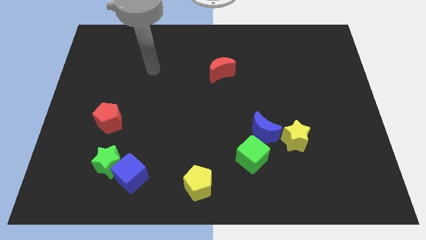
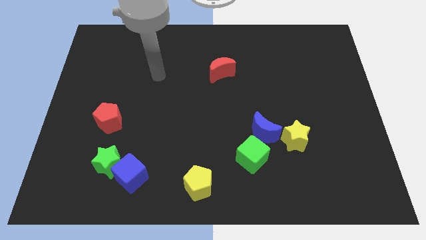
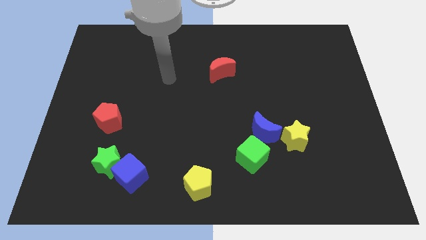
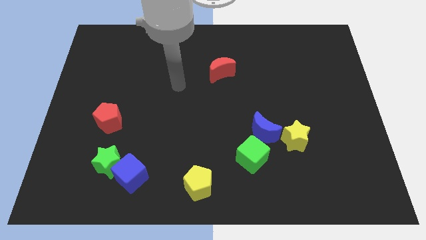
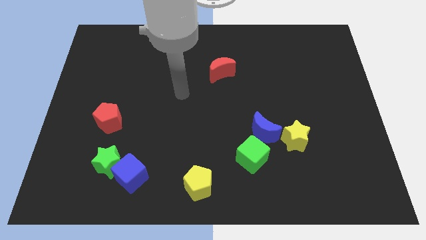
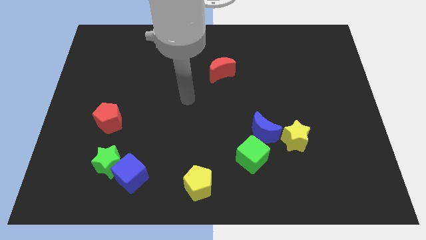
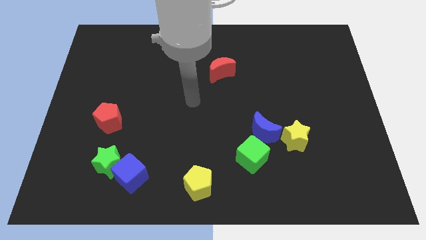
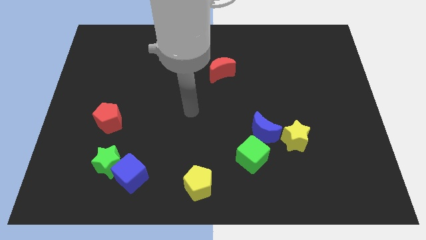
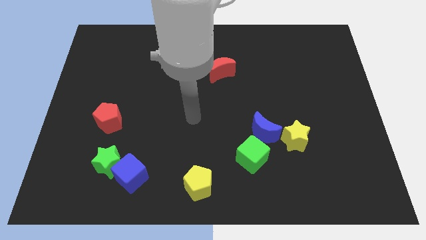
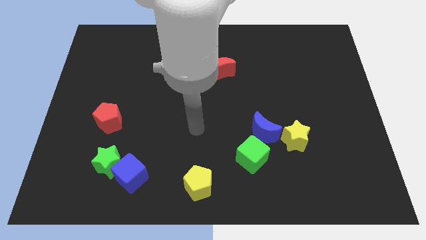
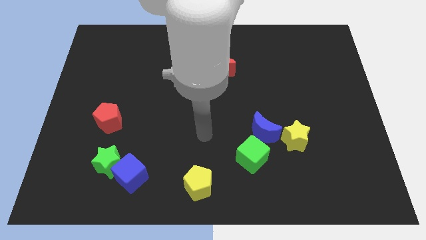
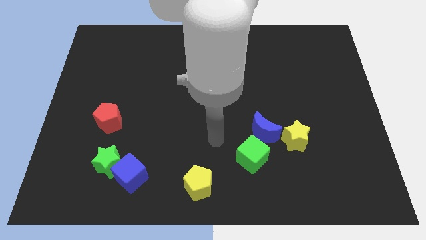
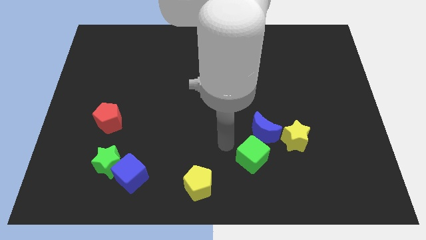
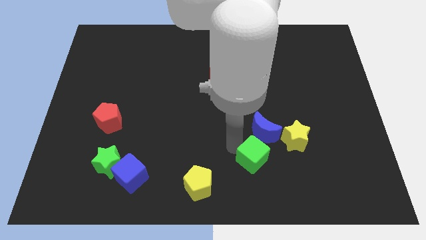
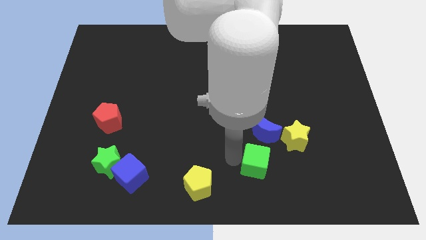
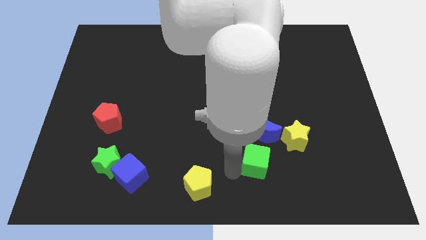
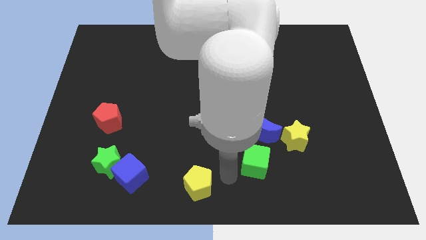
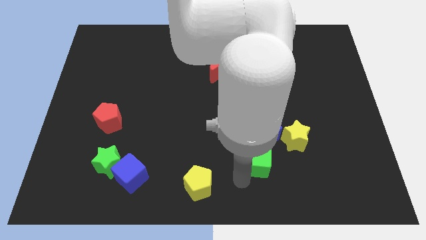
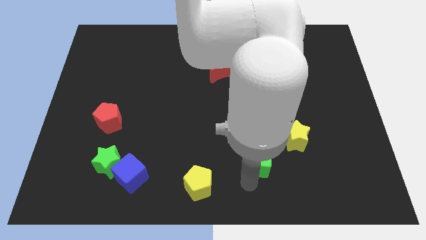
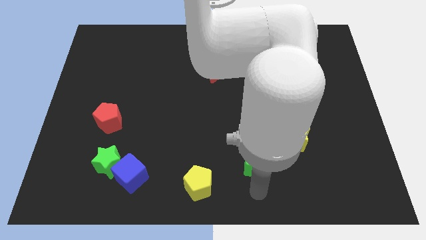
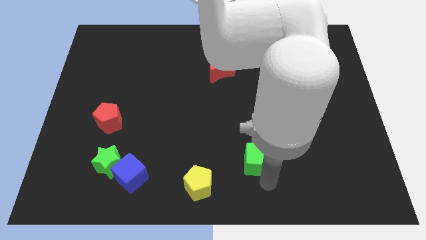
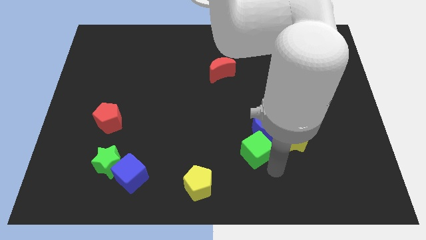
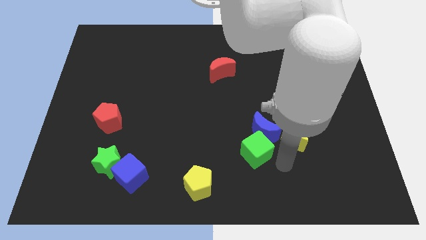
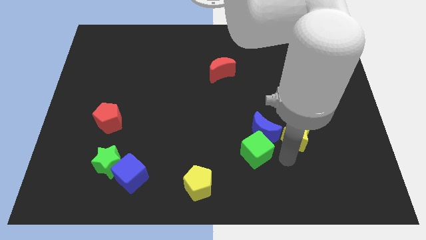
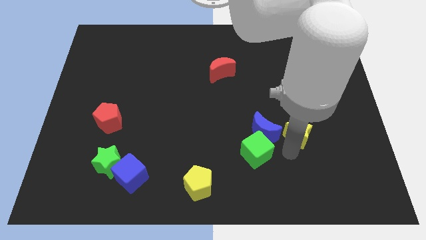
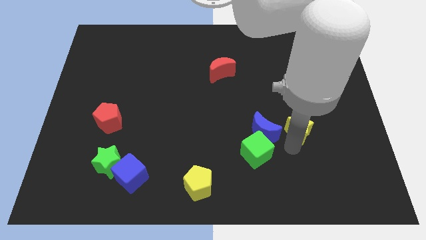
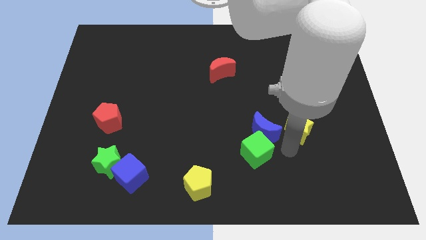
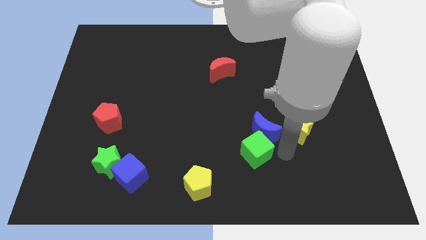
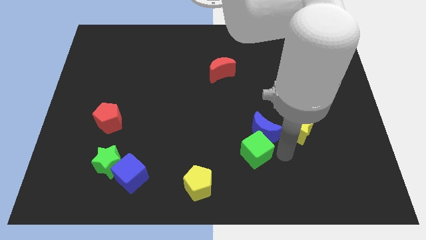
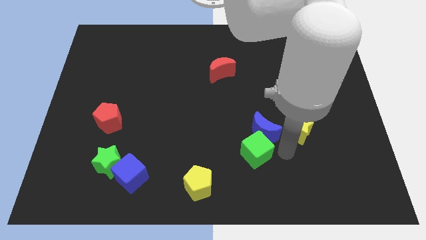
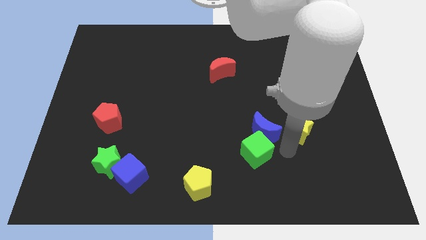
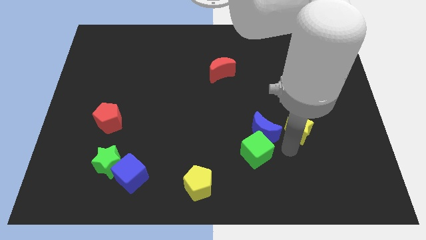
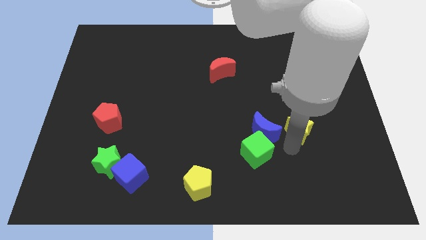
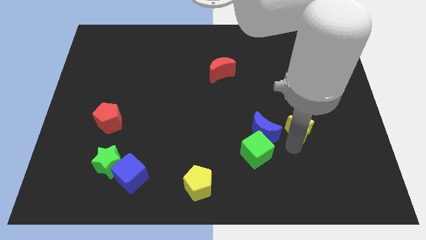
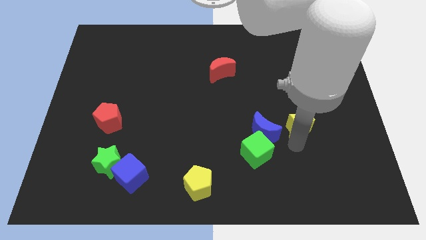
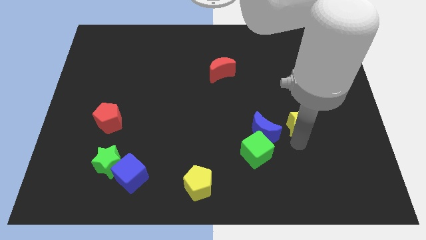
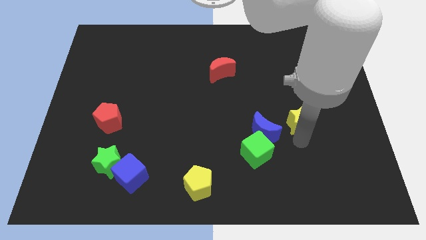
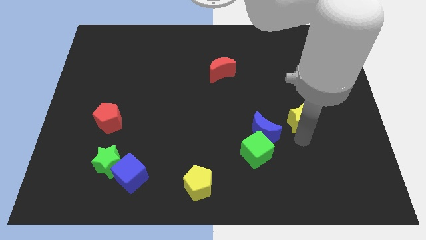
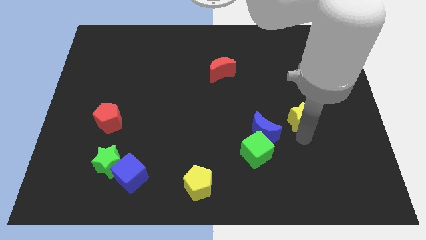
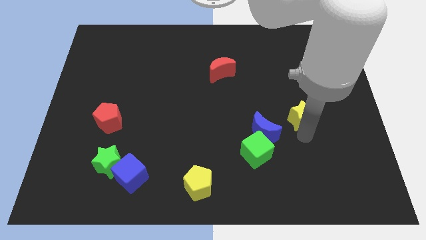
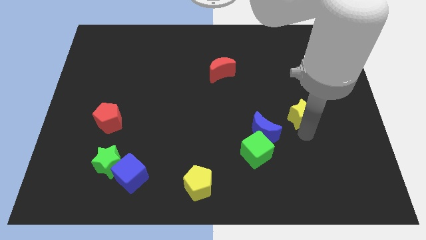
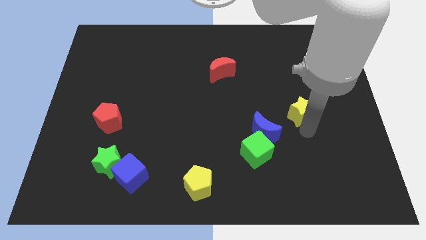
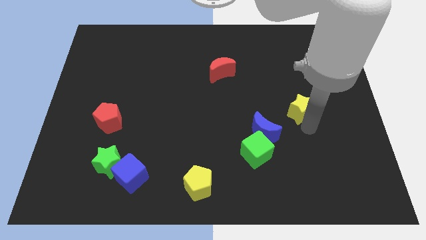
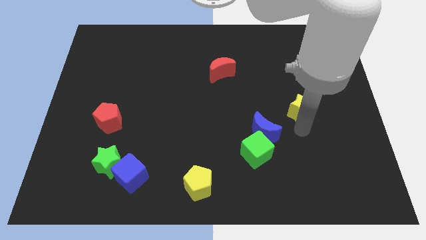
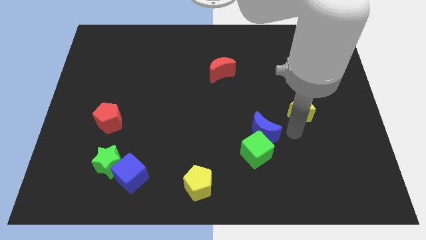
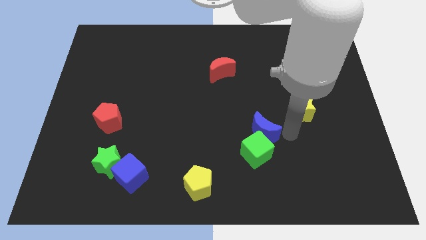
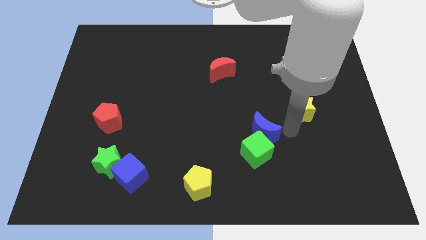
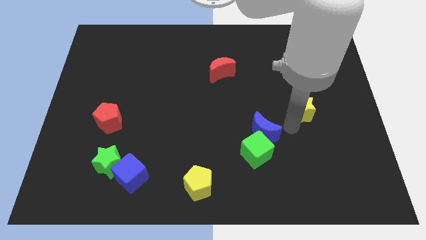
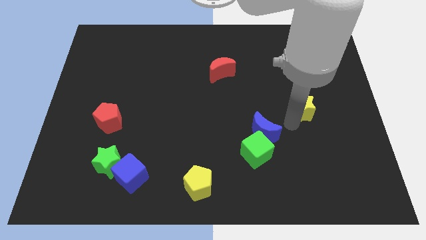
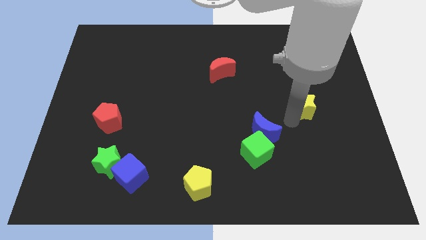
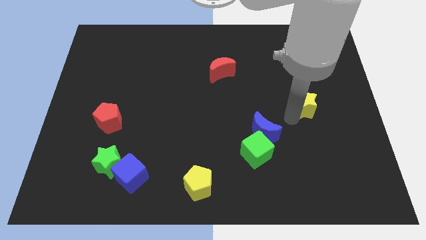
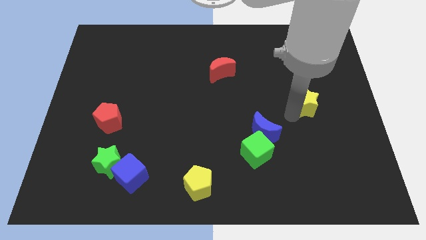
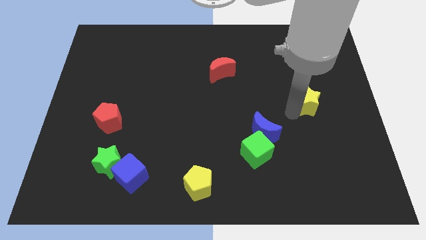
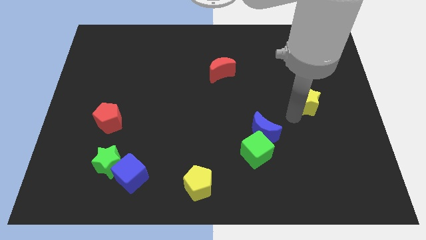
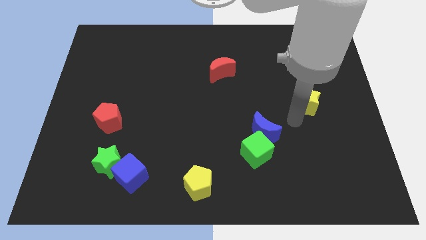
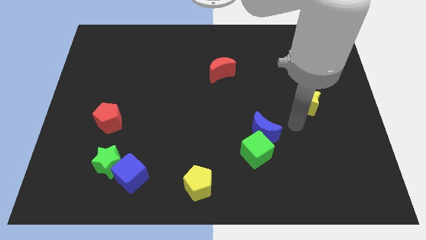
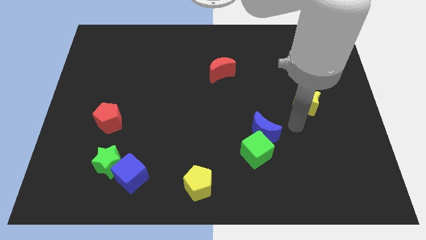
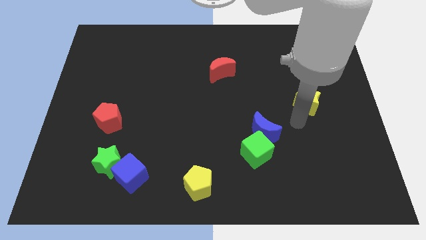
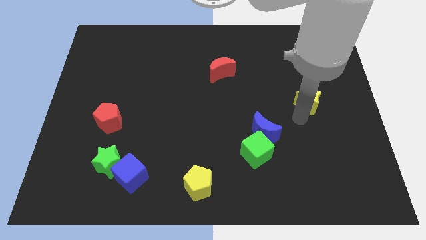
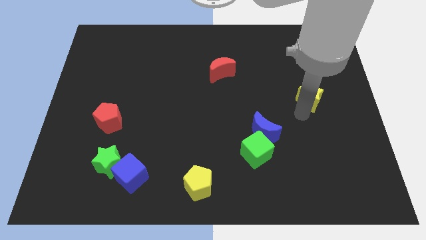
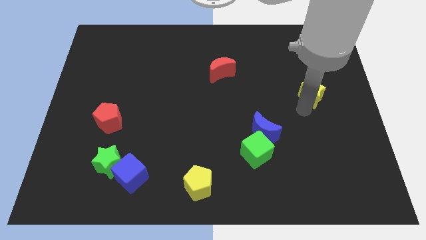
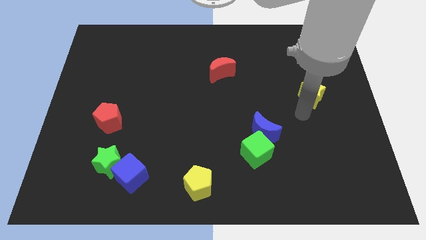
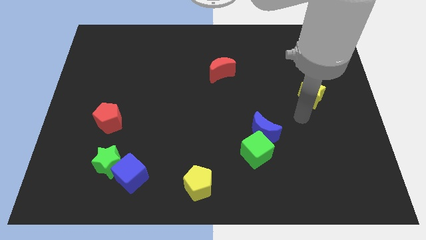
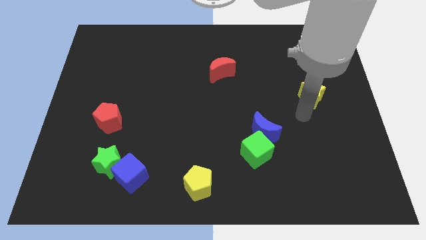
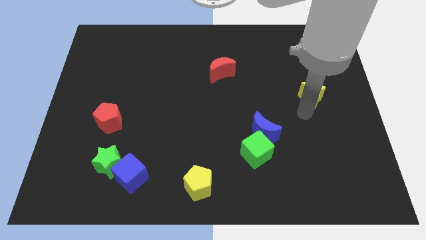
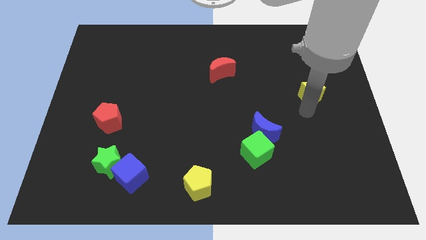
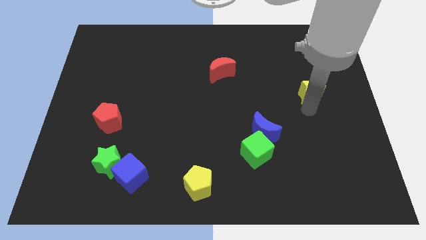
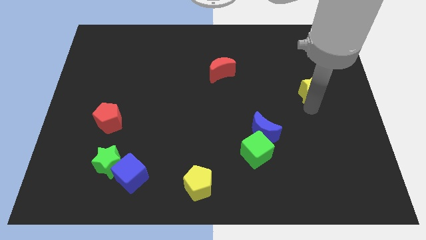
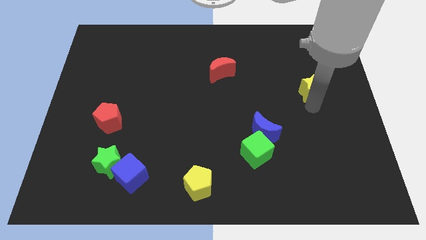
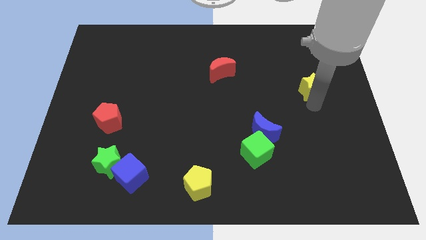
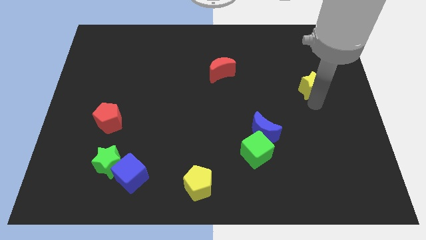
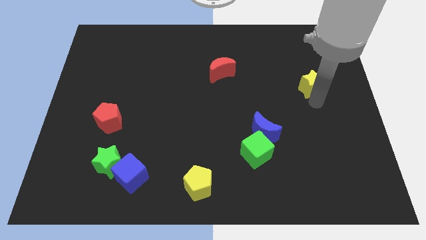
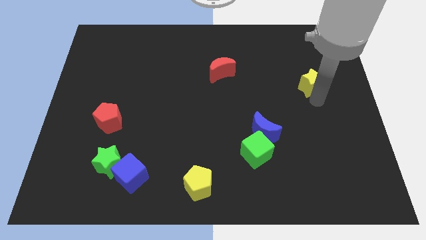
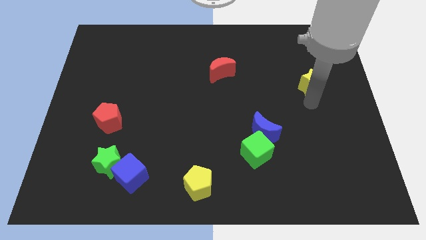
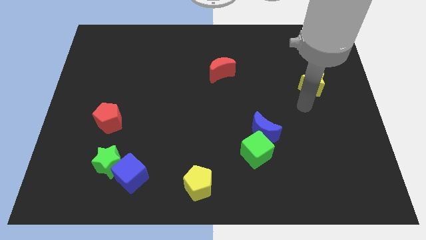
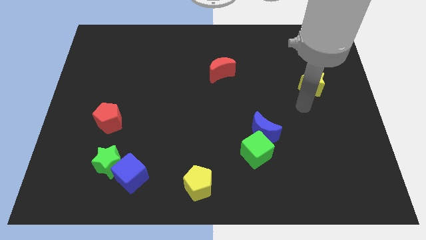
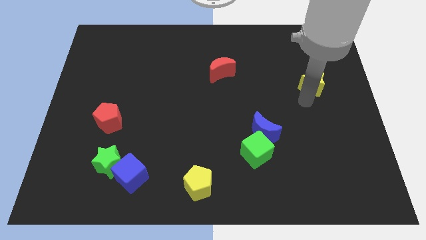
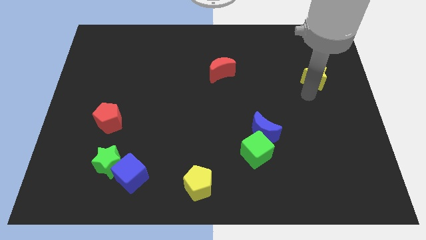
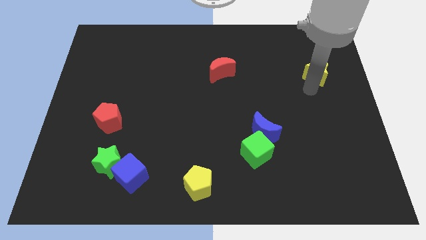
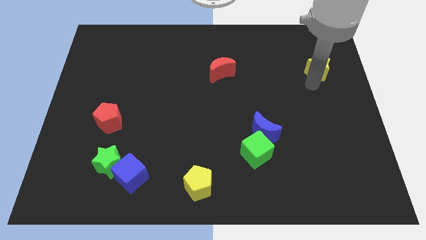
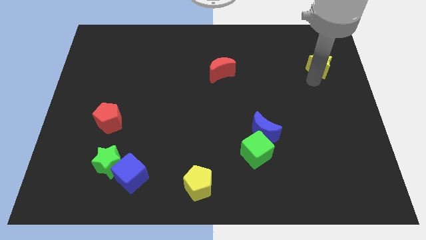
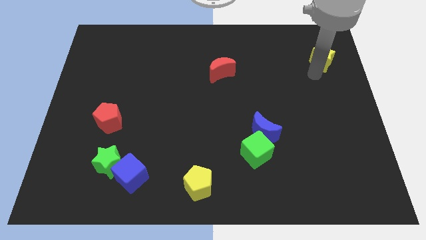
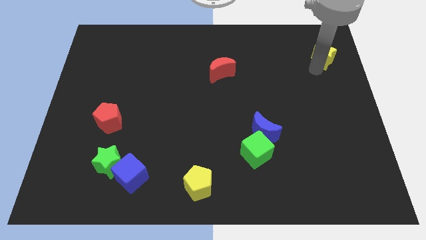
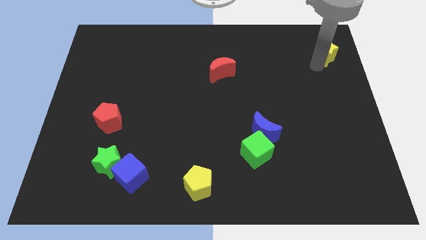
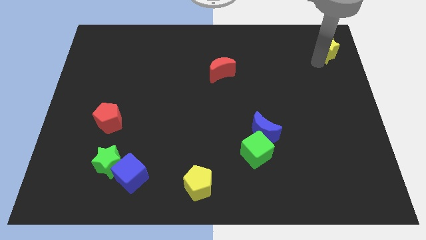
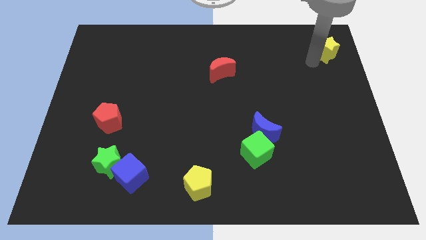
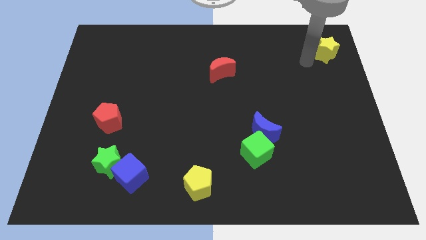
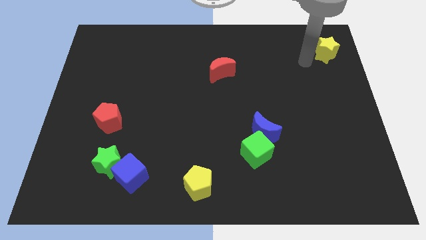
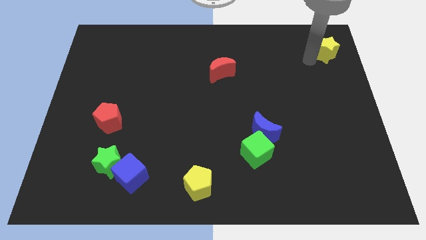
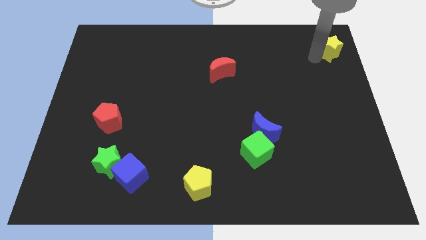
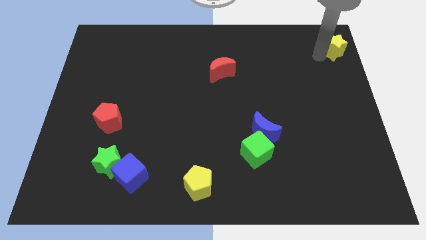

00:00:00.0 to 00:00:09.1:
slide the yellow star to the top right of the board
